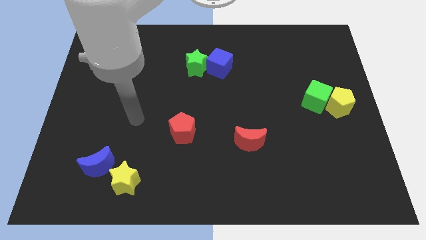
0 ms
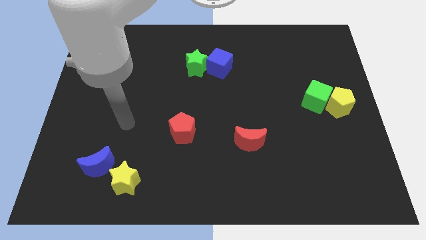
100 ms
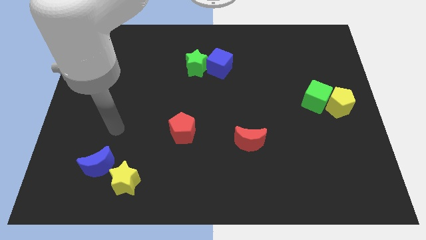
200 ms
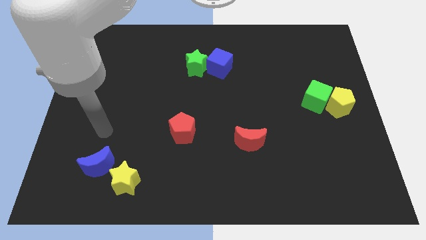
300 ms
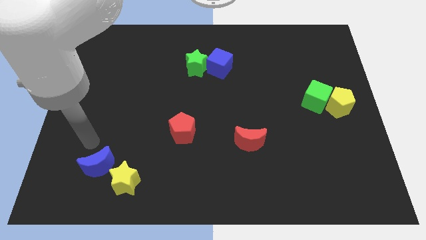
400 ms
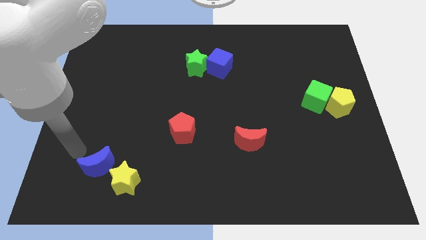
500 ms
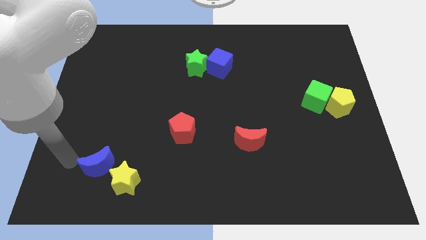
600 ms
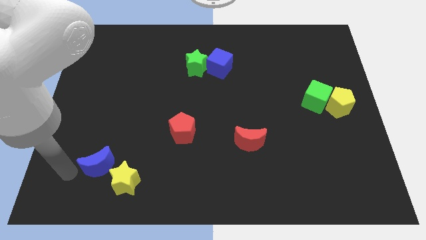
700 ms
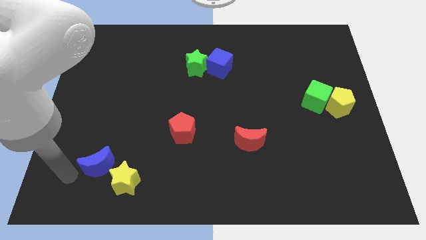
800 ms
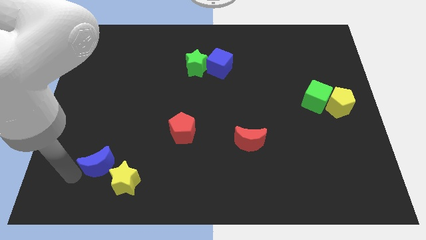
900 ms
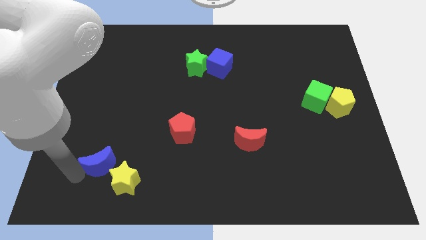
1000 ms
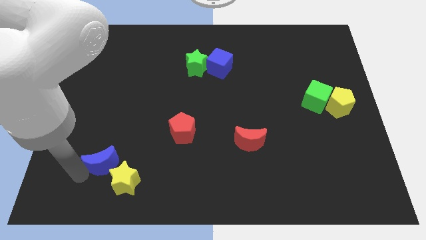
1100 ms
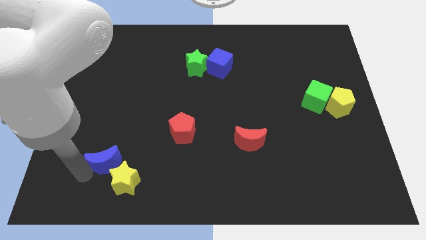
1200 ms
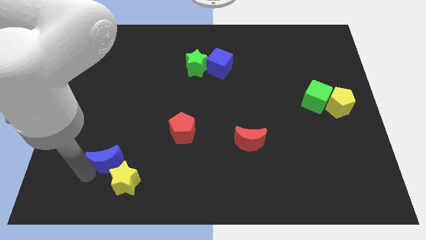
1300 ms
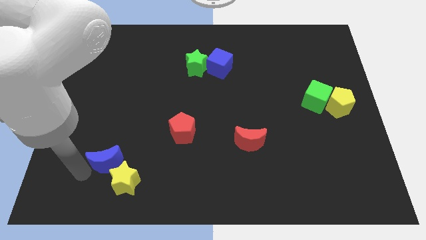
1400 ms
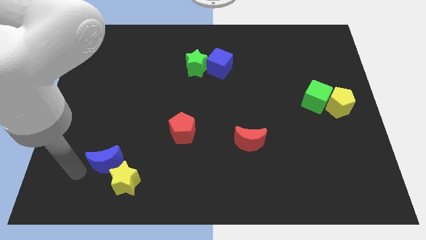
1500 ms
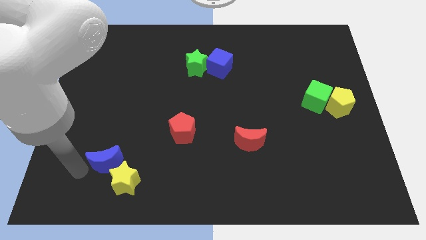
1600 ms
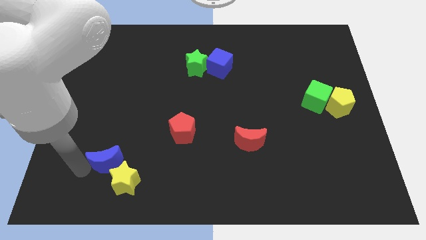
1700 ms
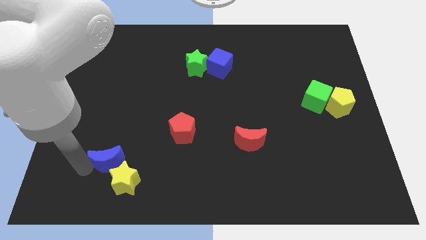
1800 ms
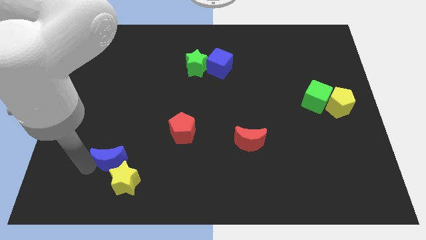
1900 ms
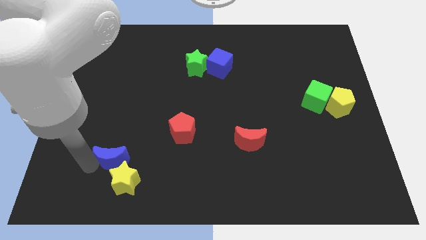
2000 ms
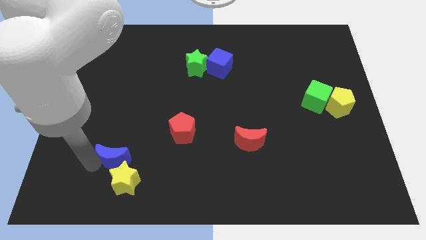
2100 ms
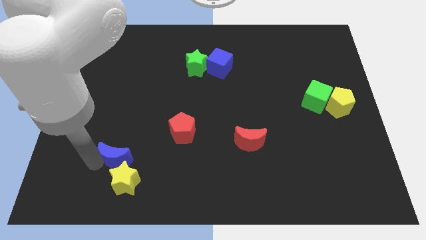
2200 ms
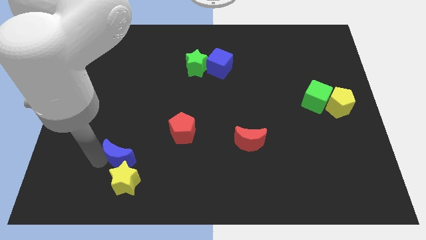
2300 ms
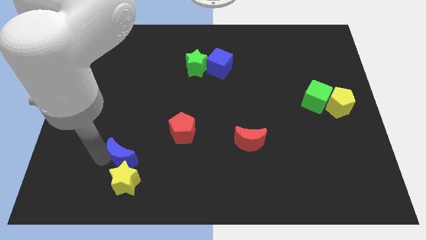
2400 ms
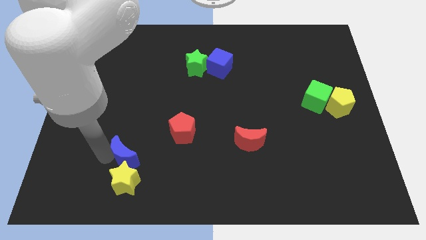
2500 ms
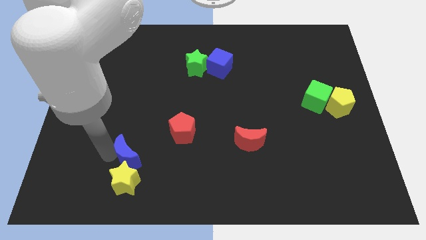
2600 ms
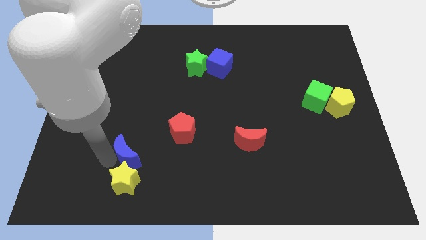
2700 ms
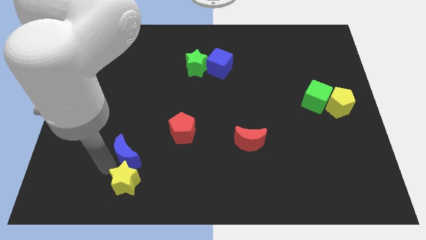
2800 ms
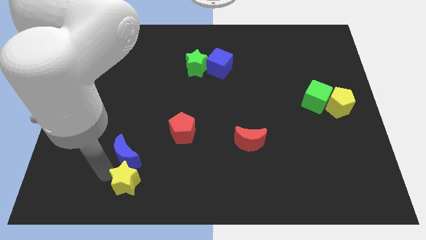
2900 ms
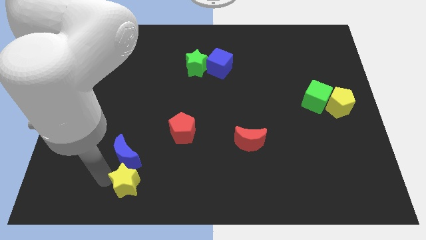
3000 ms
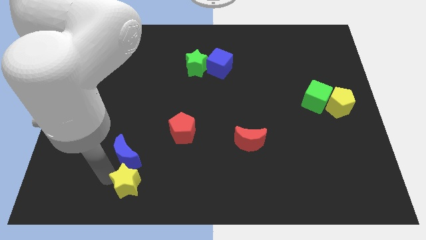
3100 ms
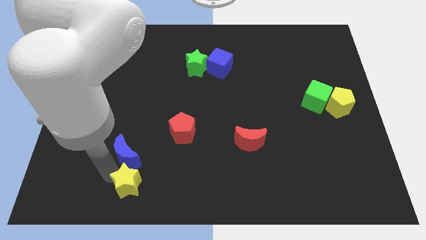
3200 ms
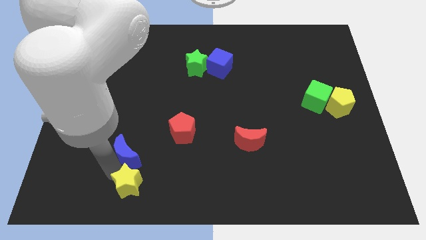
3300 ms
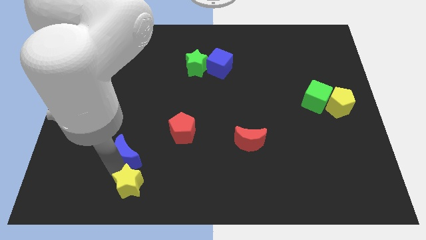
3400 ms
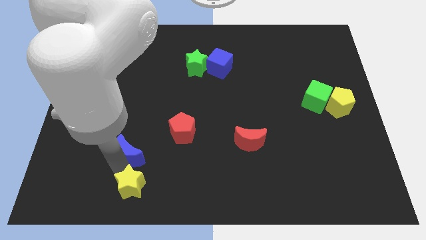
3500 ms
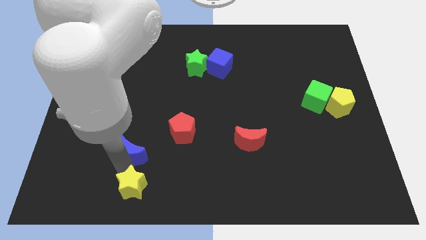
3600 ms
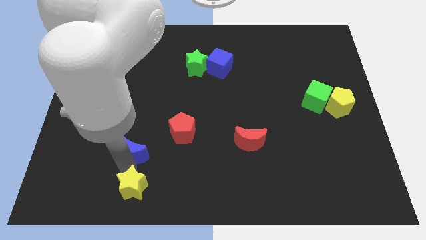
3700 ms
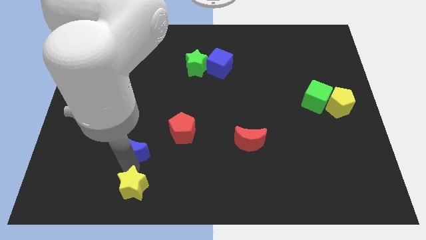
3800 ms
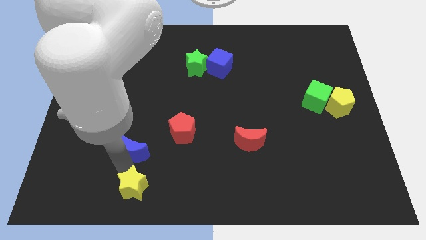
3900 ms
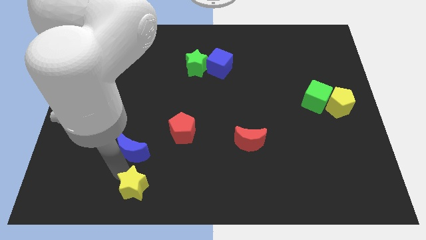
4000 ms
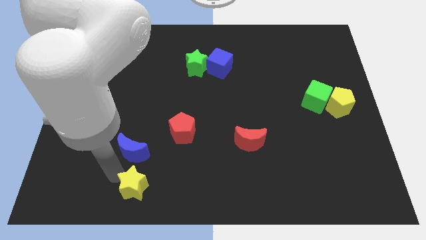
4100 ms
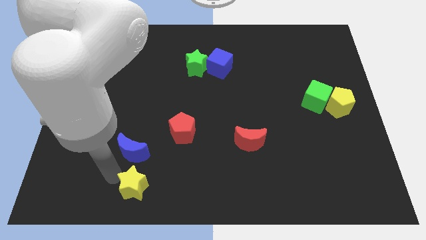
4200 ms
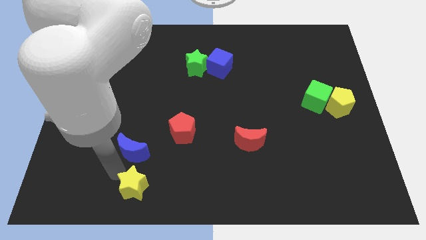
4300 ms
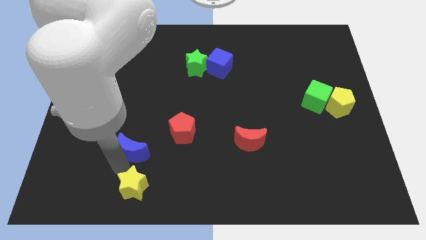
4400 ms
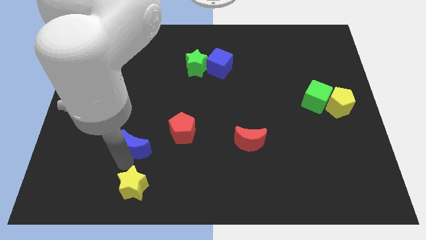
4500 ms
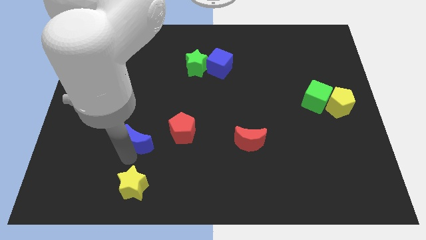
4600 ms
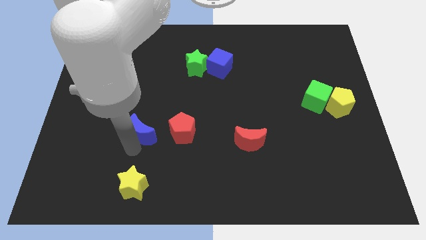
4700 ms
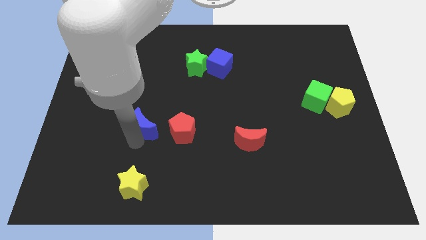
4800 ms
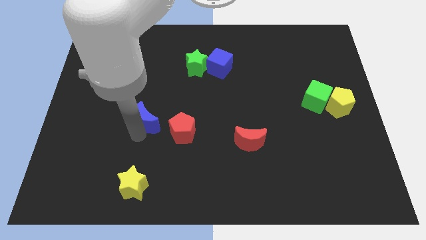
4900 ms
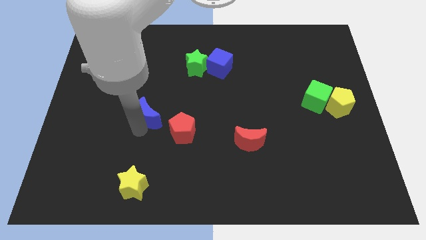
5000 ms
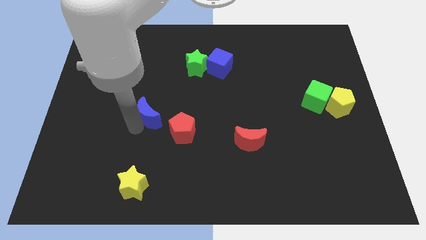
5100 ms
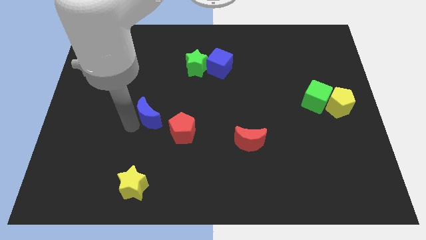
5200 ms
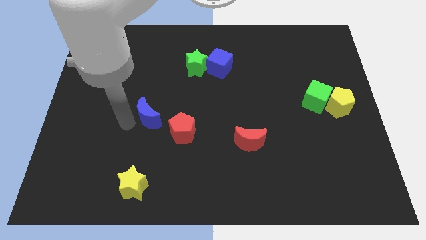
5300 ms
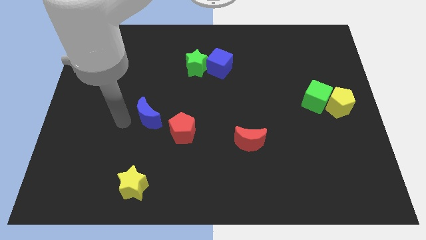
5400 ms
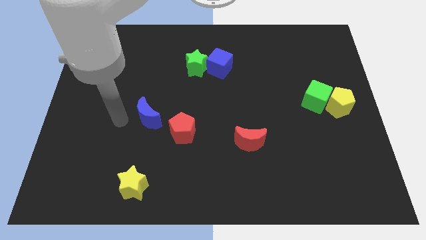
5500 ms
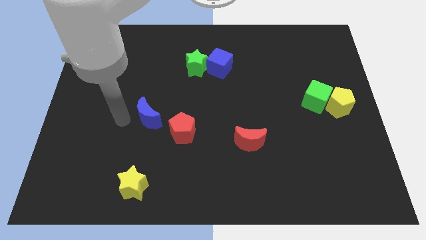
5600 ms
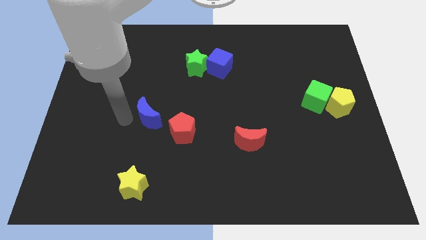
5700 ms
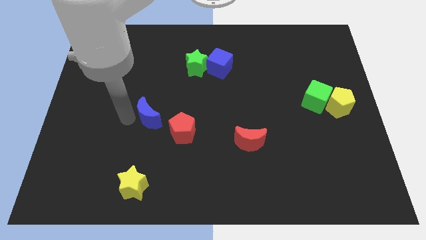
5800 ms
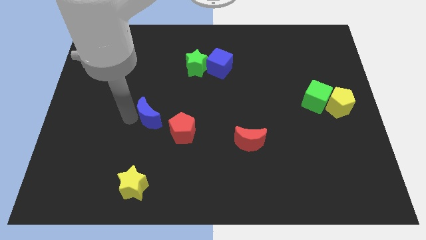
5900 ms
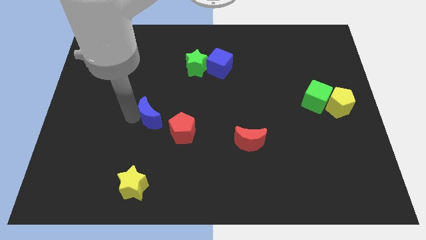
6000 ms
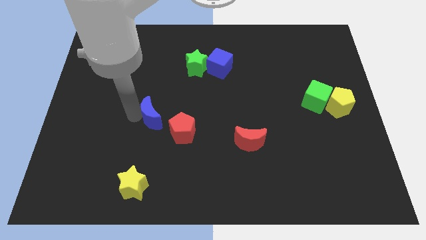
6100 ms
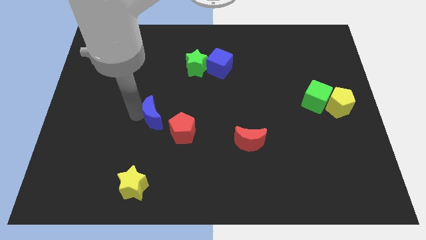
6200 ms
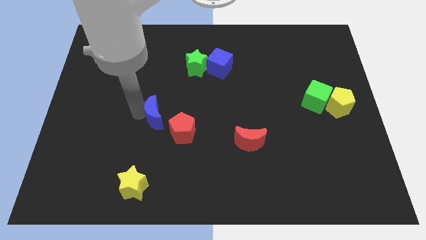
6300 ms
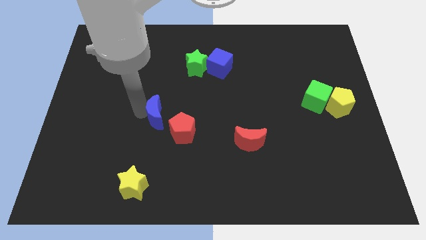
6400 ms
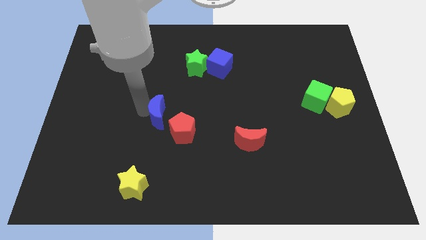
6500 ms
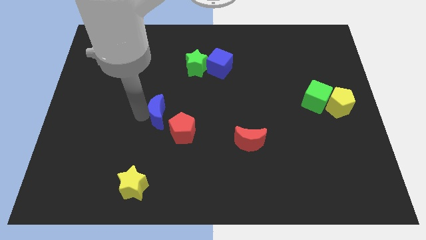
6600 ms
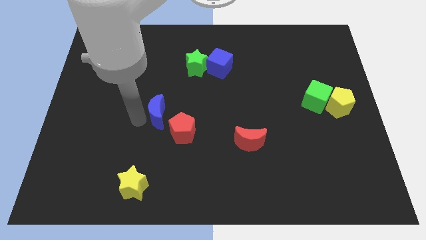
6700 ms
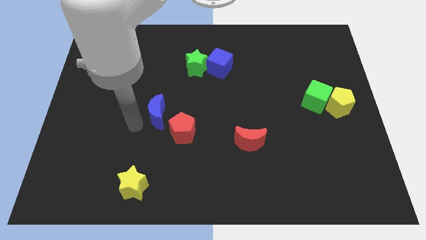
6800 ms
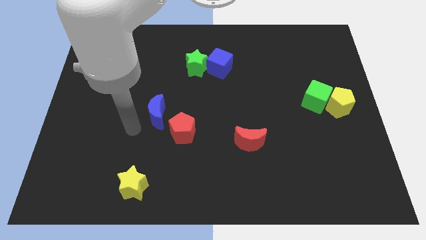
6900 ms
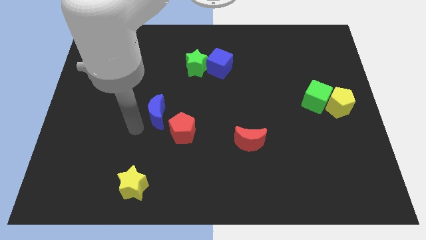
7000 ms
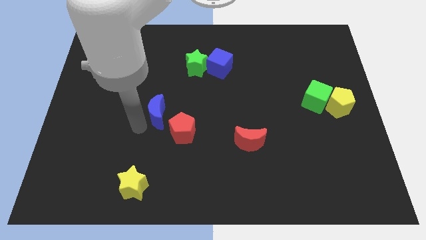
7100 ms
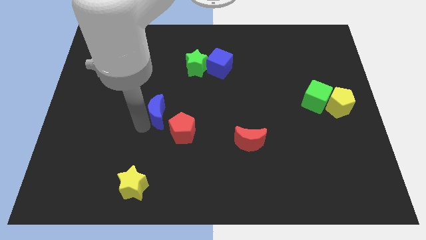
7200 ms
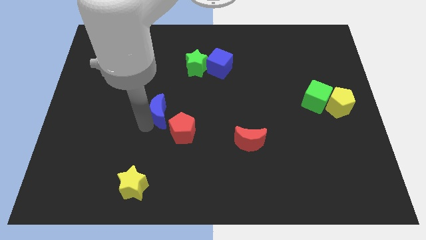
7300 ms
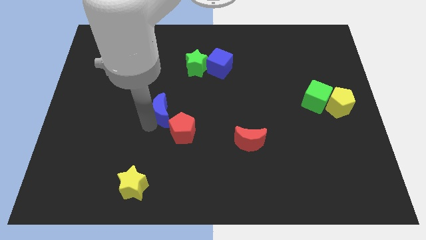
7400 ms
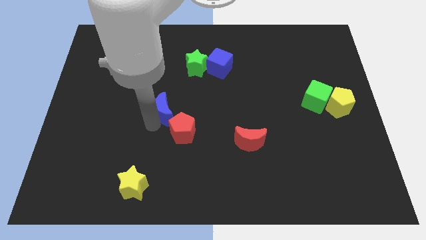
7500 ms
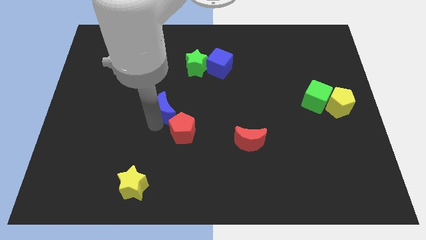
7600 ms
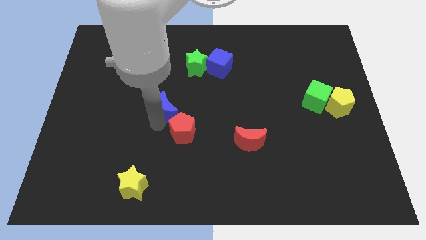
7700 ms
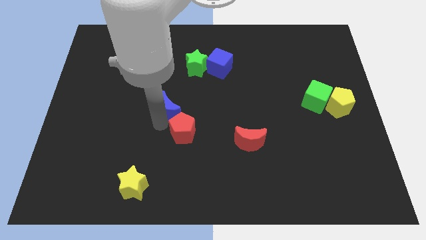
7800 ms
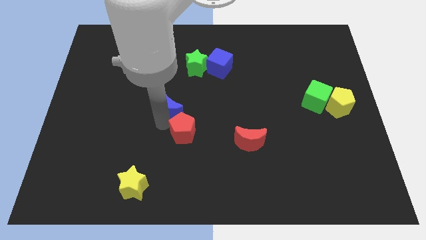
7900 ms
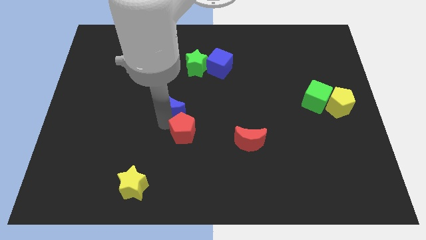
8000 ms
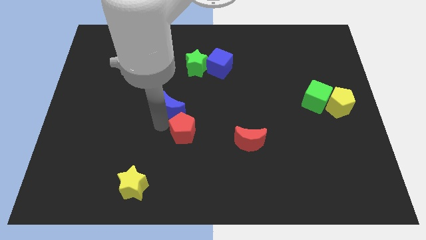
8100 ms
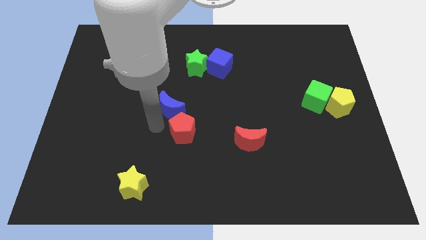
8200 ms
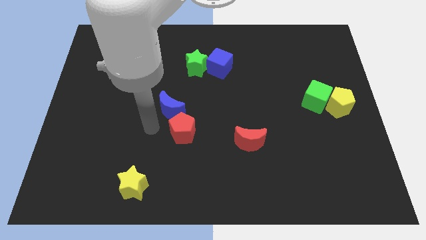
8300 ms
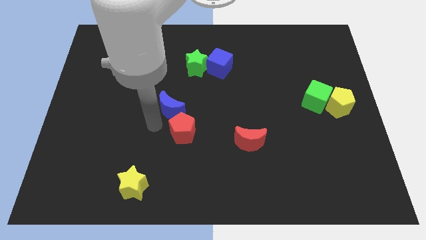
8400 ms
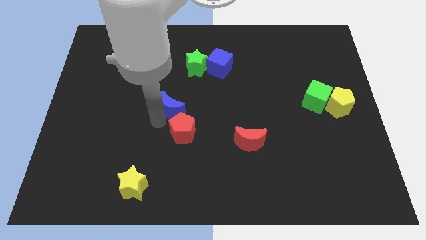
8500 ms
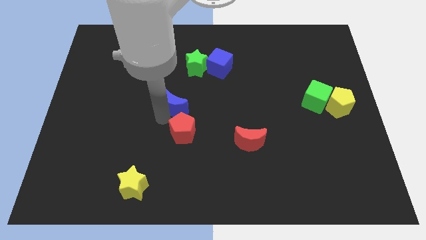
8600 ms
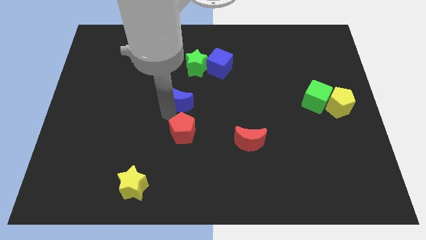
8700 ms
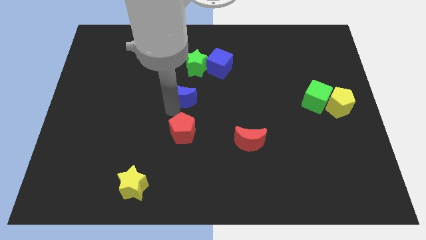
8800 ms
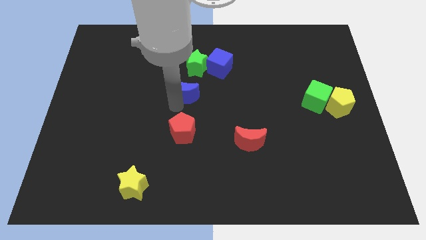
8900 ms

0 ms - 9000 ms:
move the blue moon to the bottom left side of the blue cube
